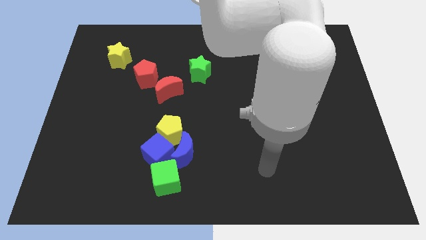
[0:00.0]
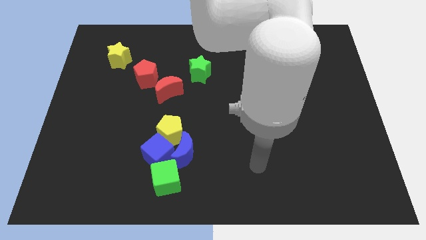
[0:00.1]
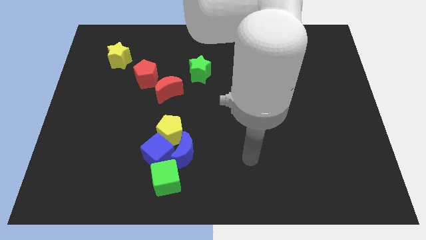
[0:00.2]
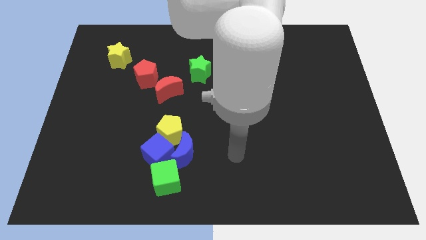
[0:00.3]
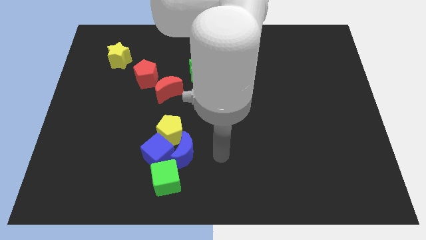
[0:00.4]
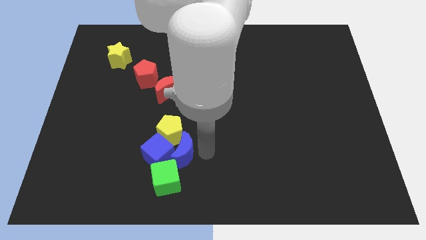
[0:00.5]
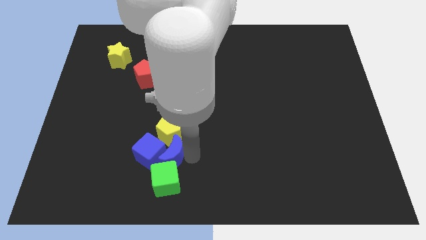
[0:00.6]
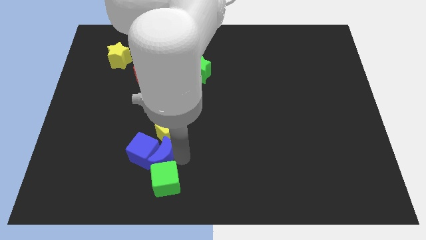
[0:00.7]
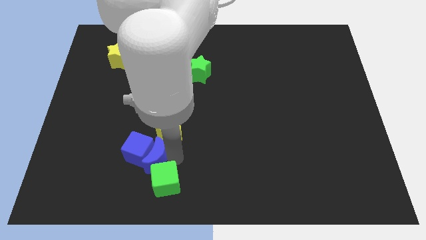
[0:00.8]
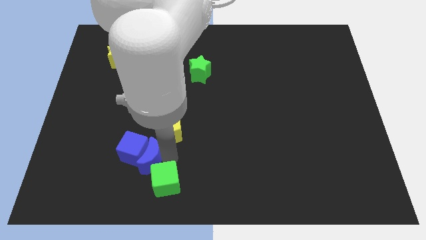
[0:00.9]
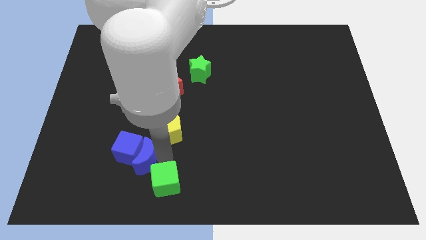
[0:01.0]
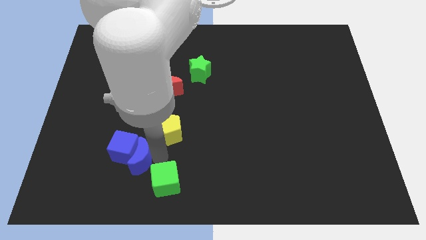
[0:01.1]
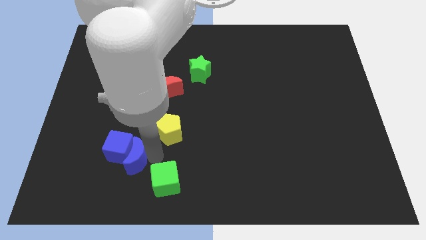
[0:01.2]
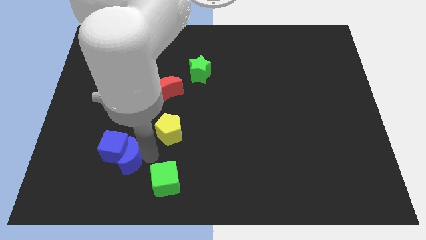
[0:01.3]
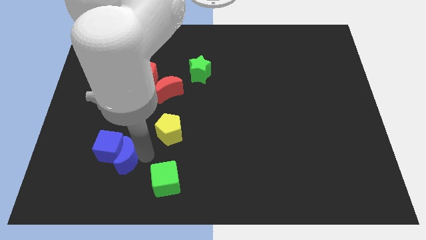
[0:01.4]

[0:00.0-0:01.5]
pull the blue cube apart from the blue moon, yellow pentagon, and green cube

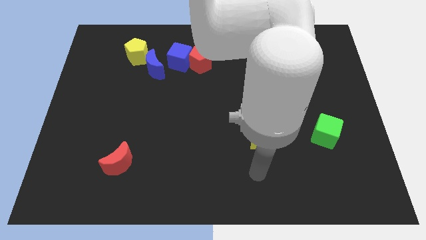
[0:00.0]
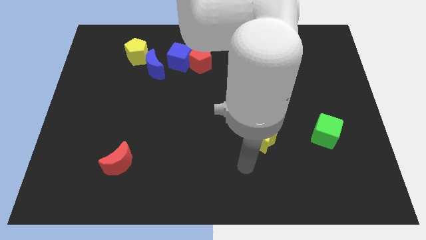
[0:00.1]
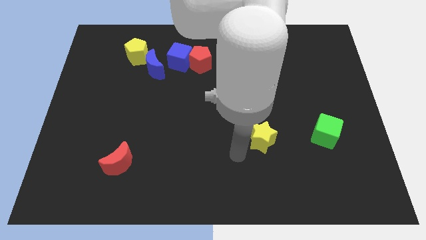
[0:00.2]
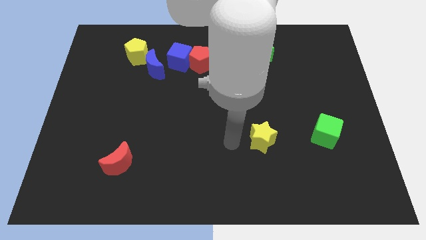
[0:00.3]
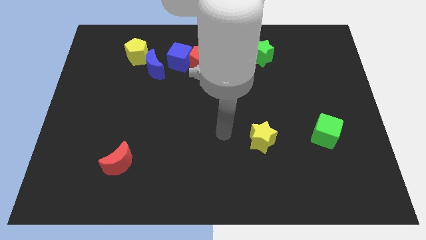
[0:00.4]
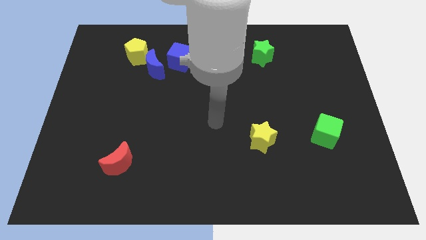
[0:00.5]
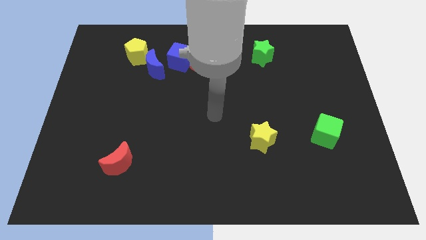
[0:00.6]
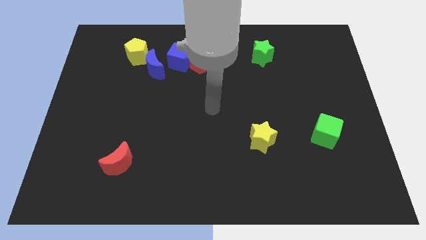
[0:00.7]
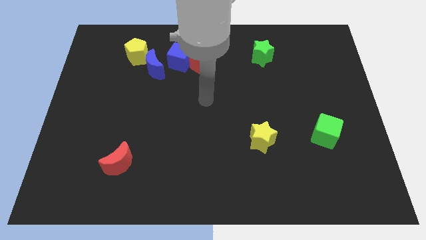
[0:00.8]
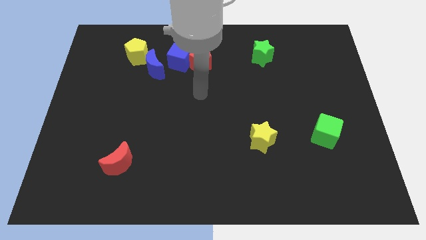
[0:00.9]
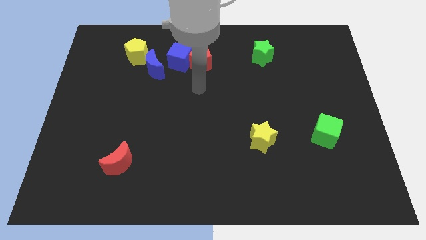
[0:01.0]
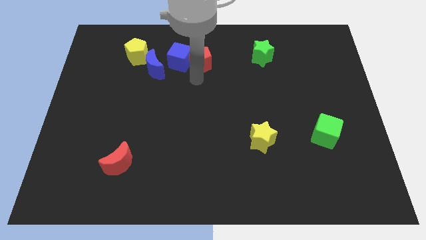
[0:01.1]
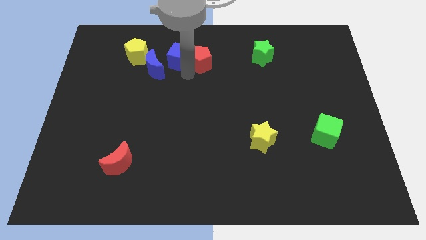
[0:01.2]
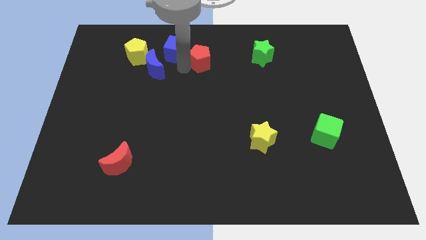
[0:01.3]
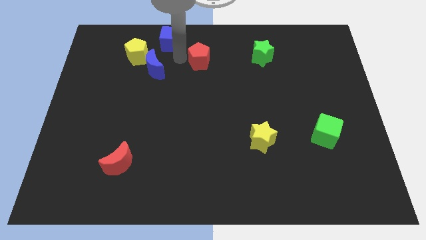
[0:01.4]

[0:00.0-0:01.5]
separate the red pentagon from the blue cube

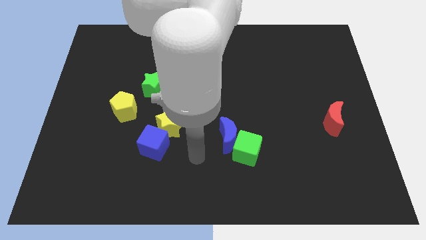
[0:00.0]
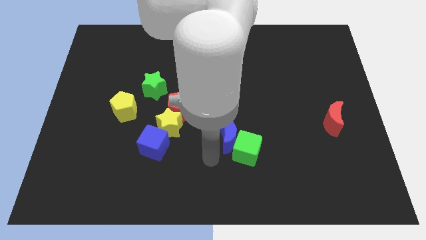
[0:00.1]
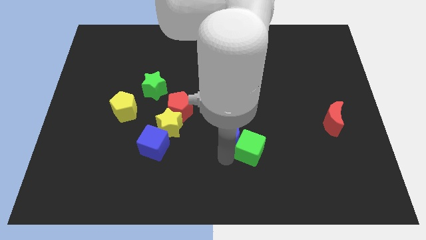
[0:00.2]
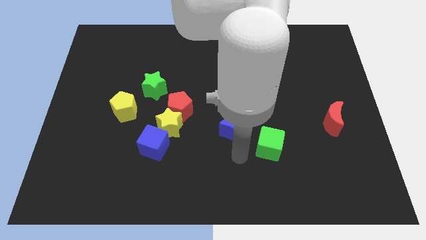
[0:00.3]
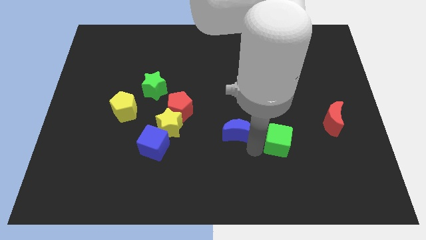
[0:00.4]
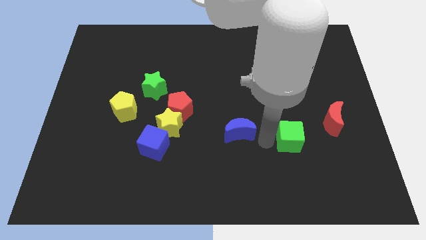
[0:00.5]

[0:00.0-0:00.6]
separate the blue moon from the green cube

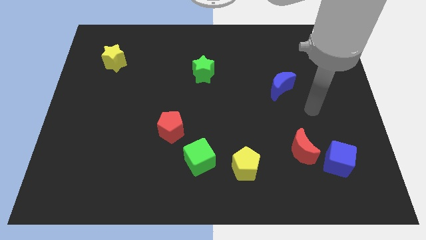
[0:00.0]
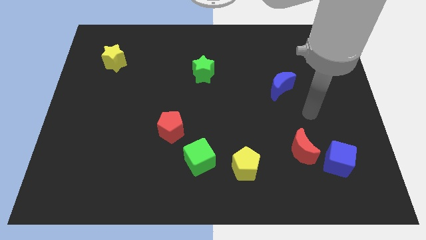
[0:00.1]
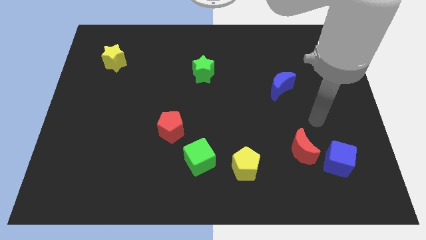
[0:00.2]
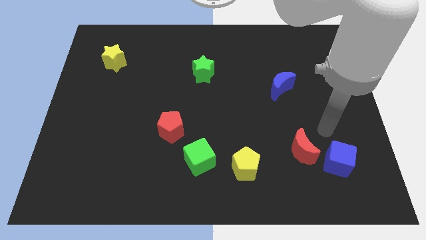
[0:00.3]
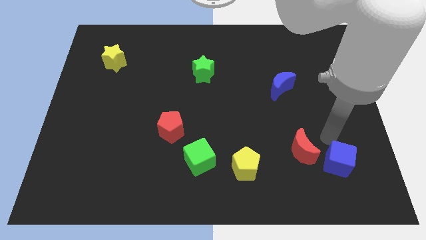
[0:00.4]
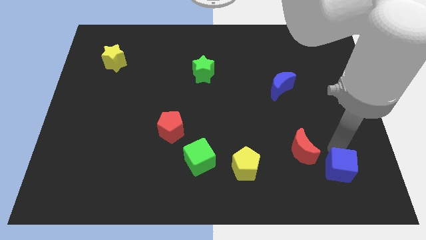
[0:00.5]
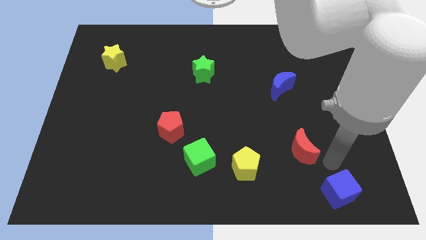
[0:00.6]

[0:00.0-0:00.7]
separate the red moon from the blue cube

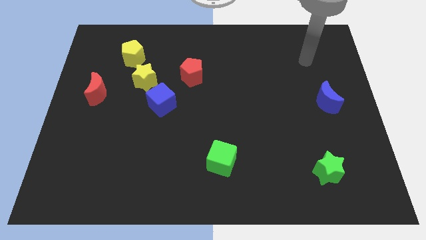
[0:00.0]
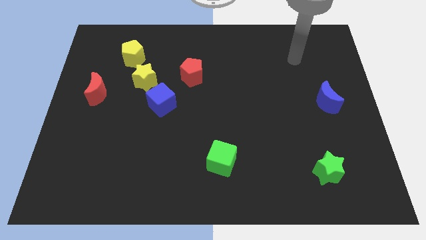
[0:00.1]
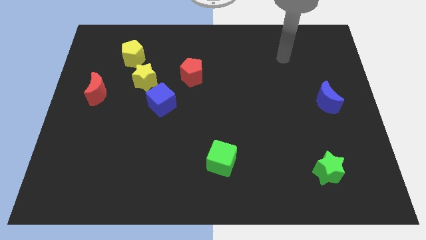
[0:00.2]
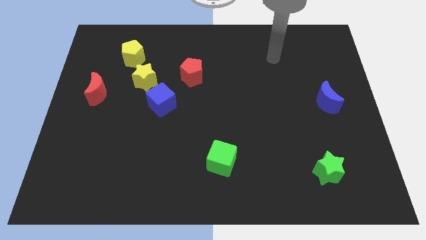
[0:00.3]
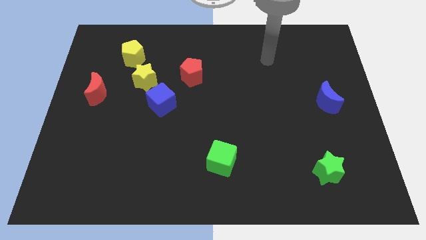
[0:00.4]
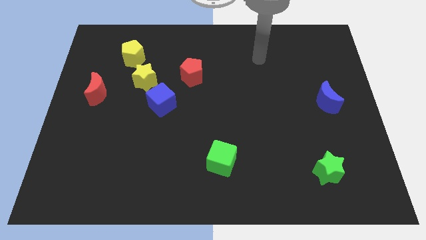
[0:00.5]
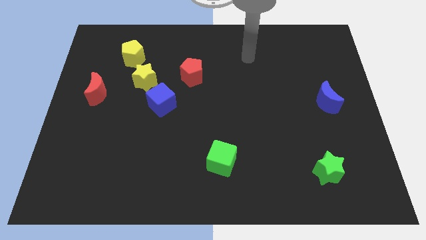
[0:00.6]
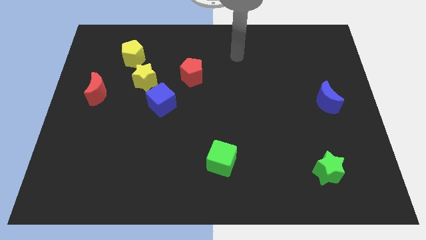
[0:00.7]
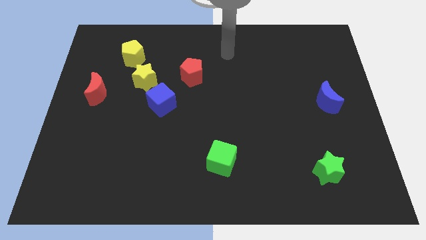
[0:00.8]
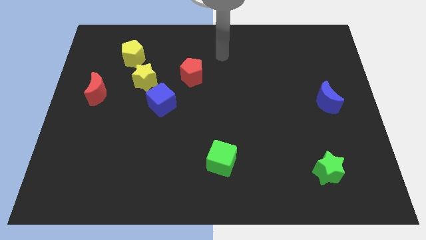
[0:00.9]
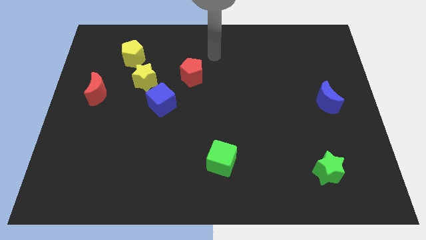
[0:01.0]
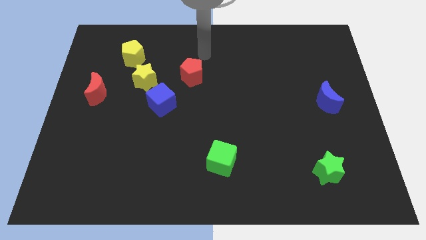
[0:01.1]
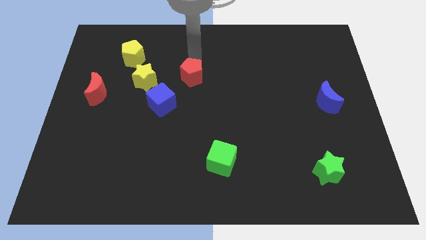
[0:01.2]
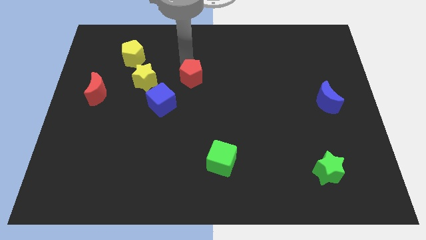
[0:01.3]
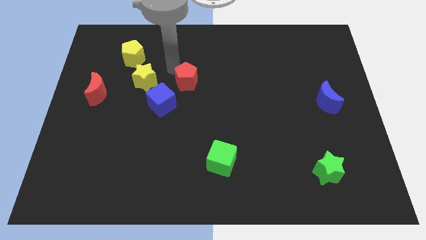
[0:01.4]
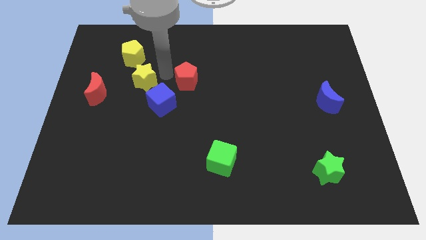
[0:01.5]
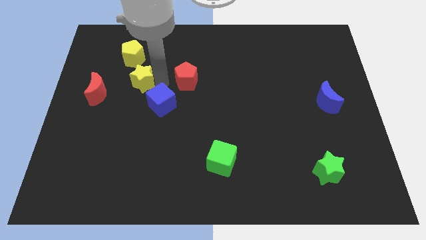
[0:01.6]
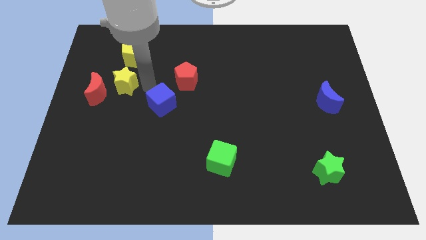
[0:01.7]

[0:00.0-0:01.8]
pull the blue cube apart from the yellow star

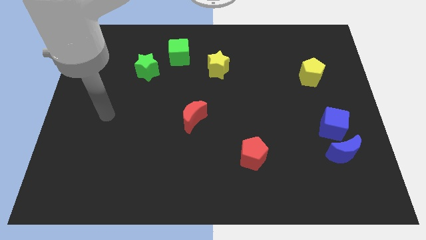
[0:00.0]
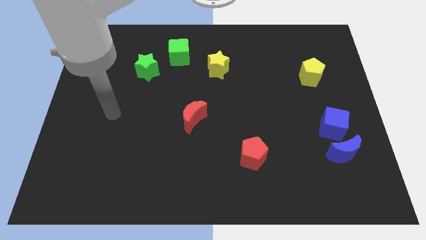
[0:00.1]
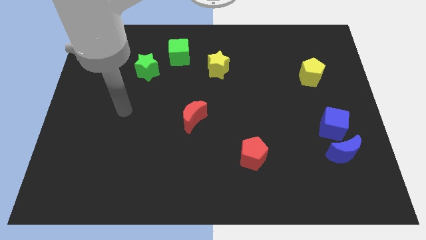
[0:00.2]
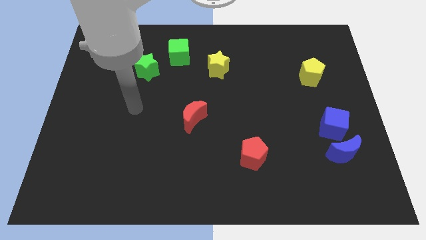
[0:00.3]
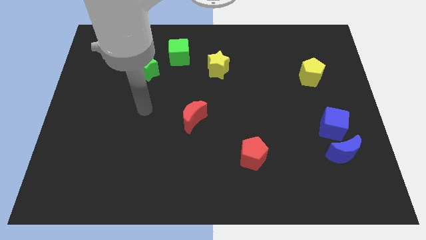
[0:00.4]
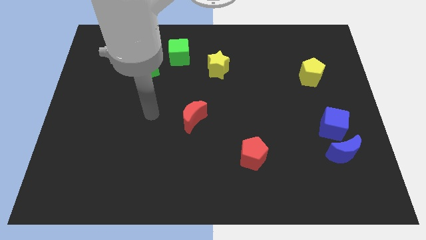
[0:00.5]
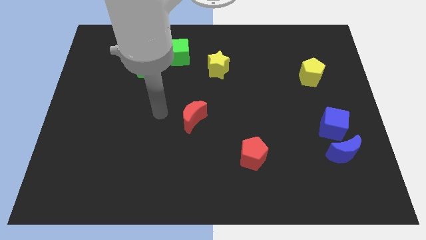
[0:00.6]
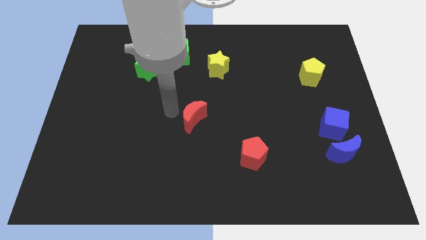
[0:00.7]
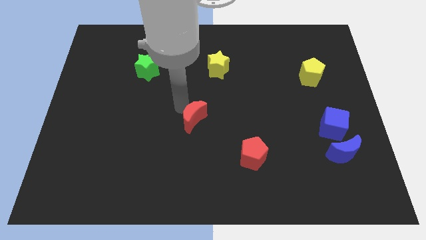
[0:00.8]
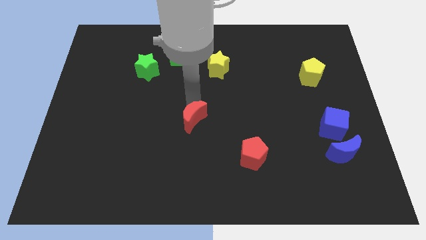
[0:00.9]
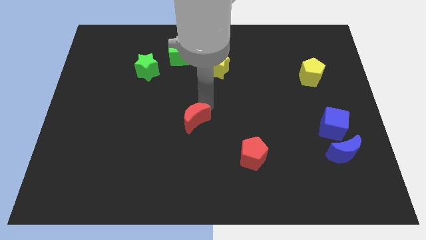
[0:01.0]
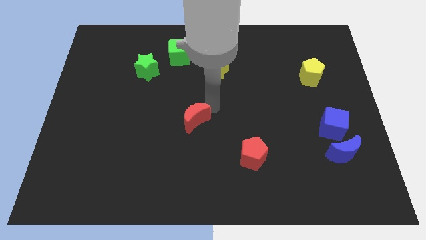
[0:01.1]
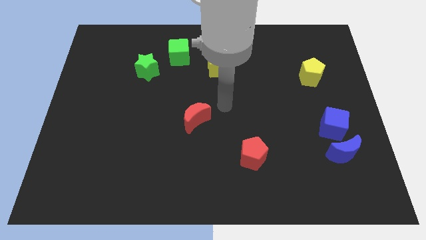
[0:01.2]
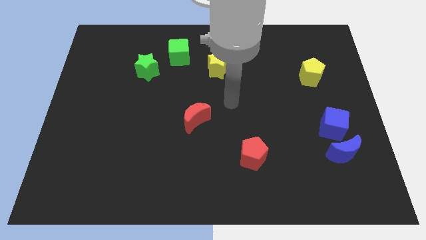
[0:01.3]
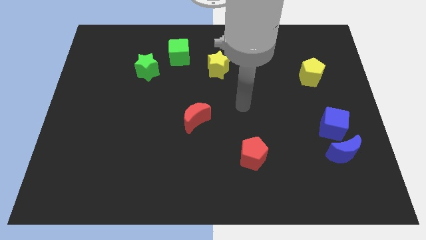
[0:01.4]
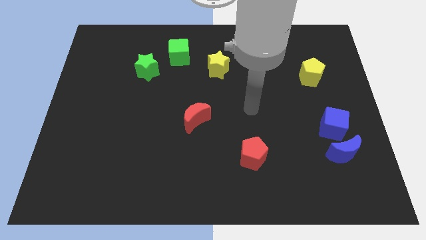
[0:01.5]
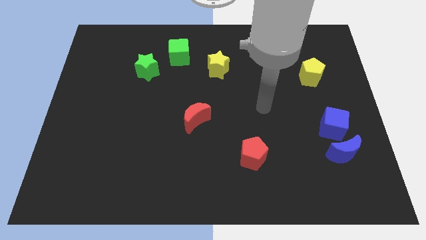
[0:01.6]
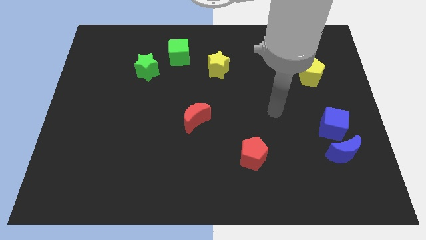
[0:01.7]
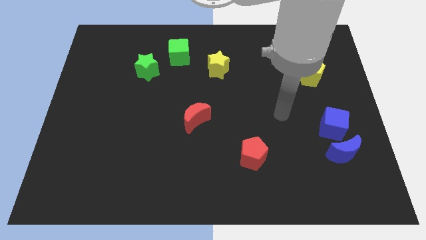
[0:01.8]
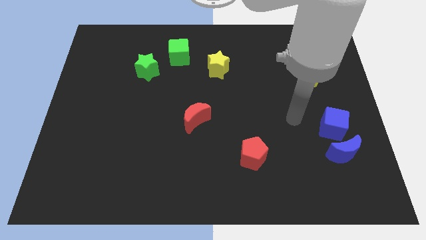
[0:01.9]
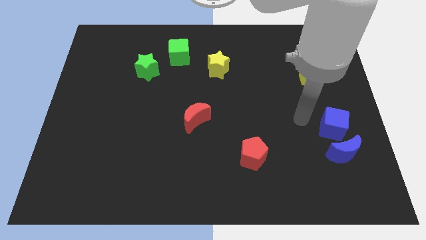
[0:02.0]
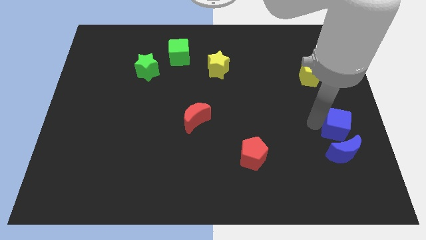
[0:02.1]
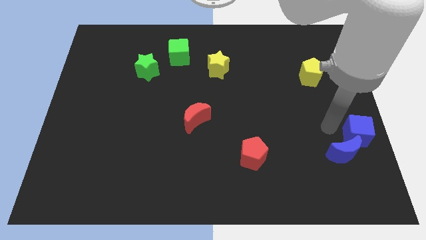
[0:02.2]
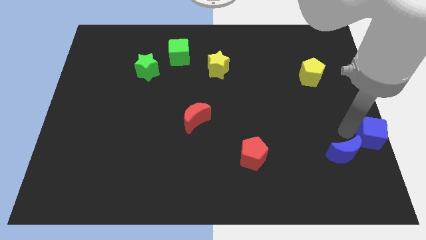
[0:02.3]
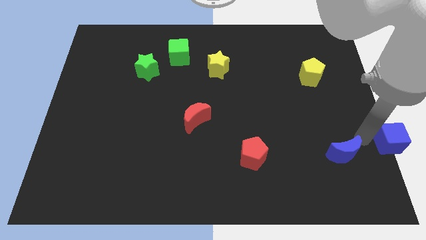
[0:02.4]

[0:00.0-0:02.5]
move the blue moon away from the blue cube

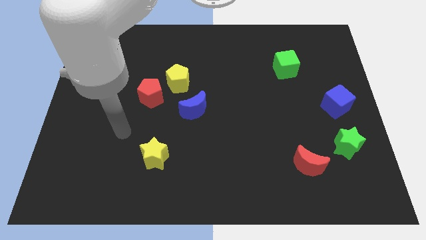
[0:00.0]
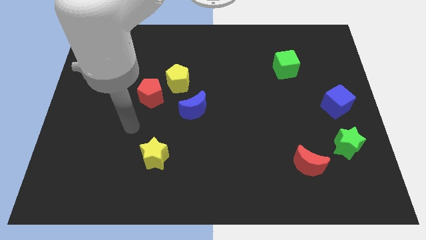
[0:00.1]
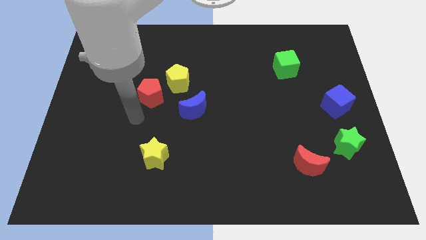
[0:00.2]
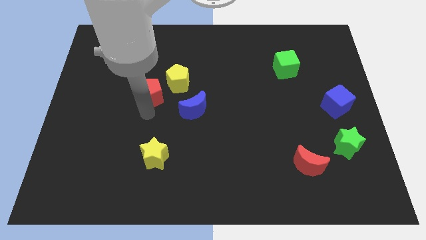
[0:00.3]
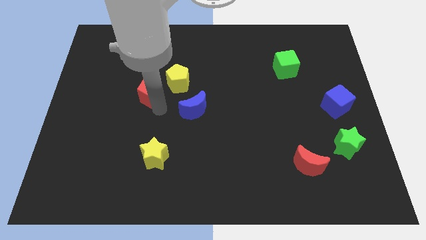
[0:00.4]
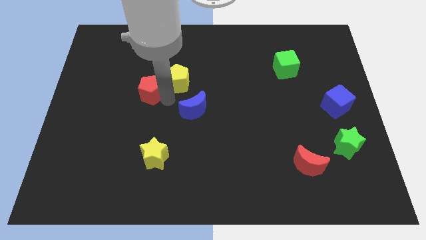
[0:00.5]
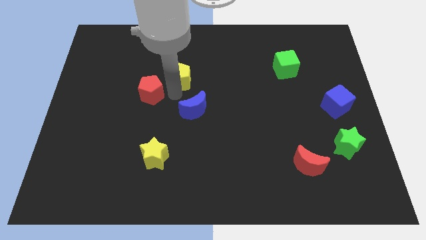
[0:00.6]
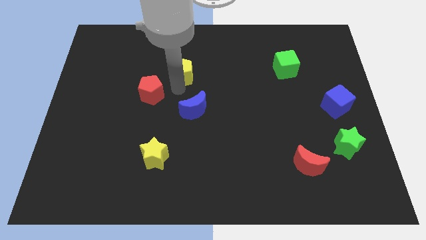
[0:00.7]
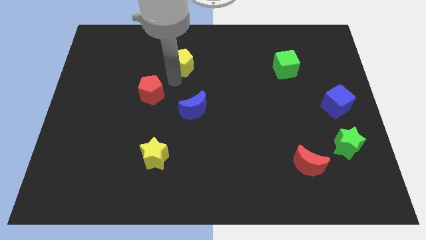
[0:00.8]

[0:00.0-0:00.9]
pull the red pentagon apart from the yellow pentagon
